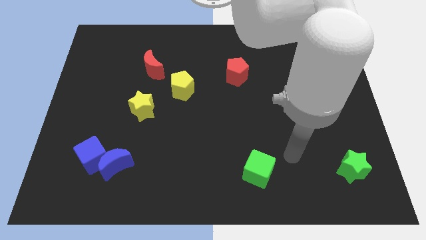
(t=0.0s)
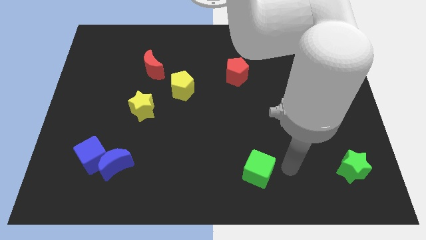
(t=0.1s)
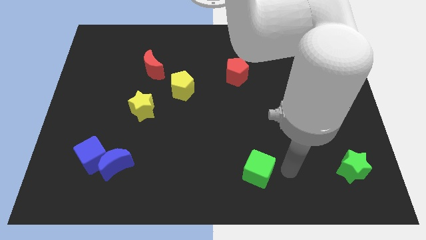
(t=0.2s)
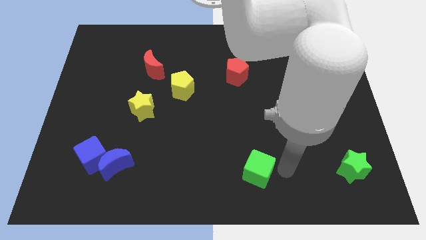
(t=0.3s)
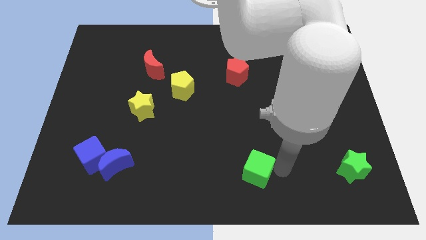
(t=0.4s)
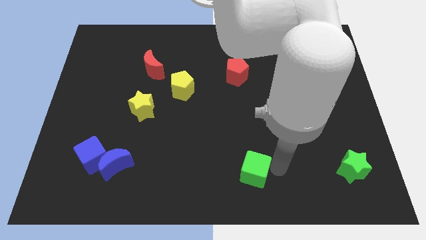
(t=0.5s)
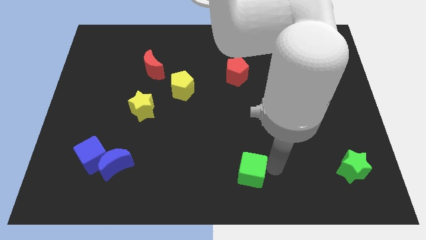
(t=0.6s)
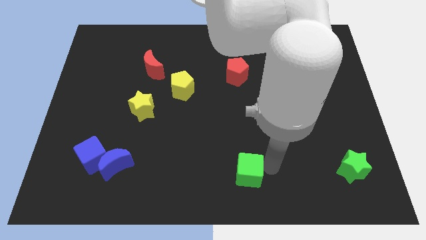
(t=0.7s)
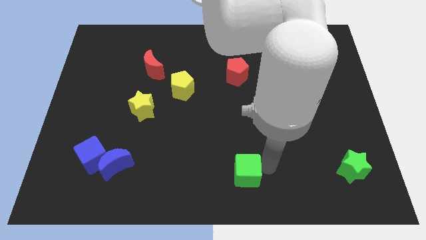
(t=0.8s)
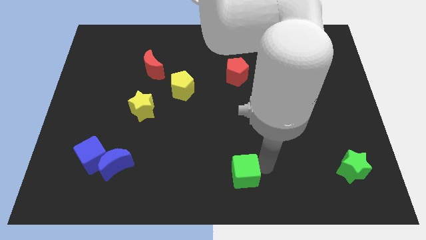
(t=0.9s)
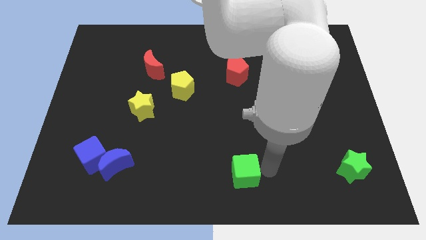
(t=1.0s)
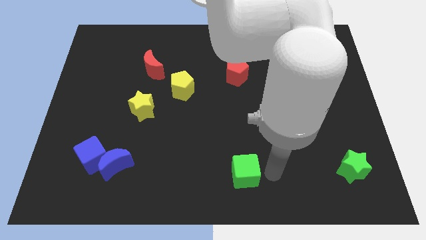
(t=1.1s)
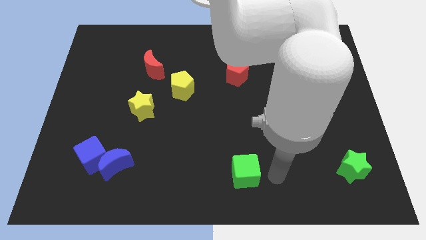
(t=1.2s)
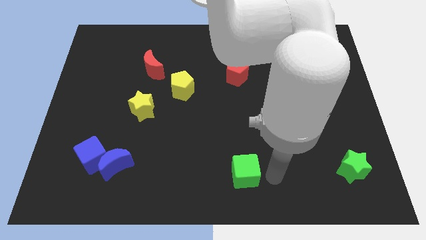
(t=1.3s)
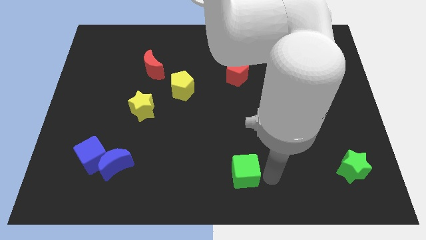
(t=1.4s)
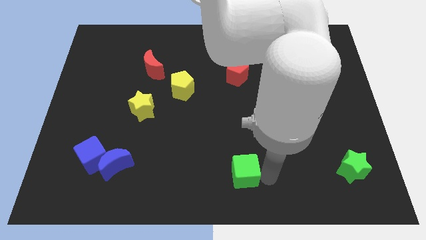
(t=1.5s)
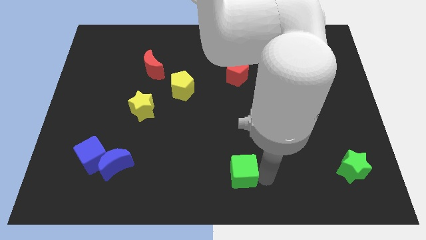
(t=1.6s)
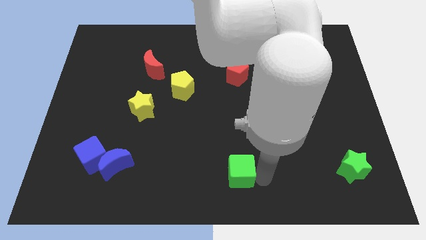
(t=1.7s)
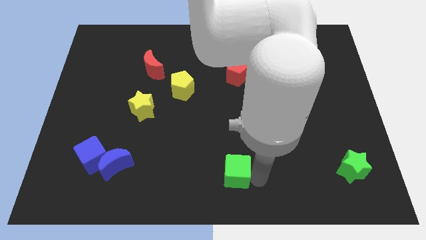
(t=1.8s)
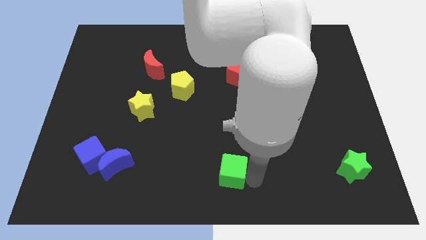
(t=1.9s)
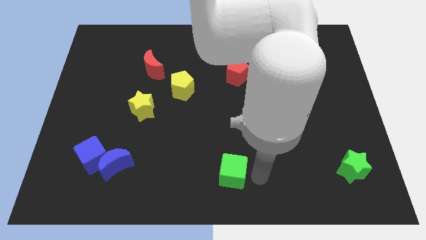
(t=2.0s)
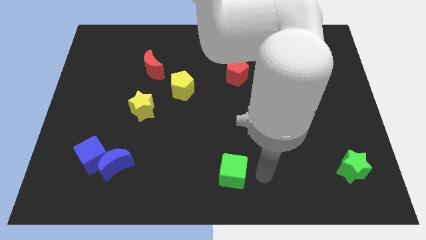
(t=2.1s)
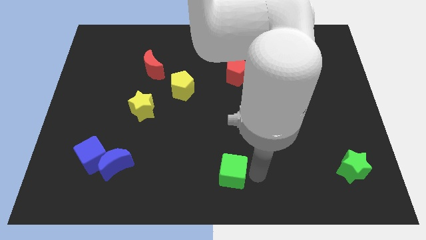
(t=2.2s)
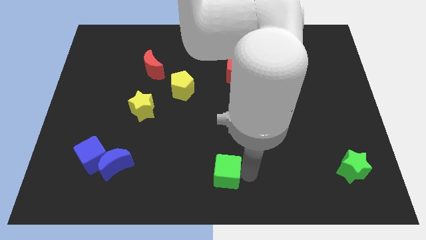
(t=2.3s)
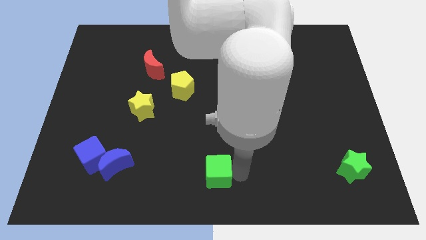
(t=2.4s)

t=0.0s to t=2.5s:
slightly move the green cube to the left

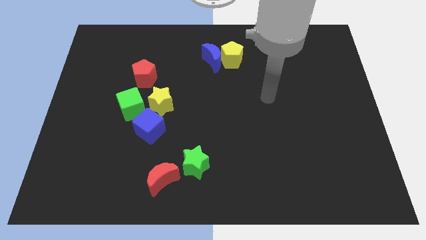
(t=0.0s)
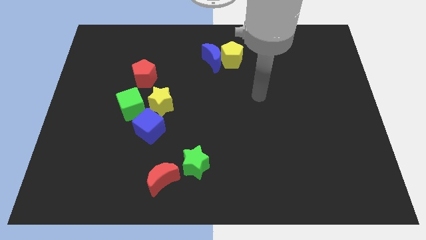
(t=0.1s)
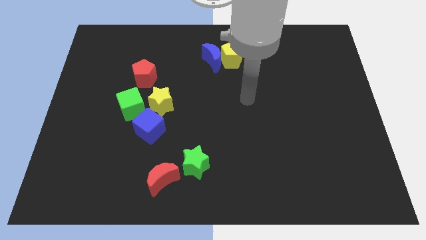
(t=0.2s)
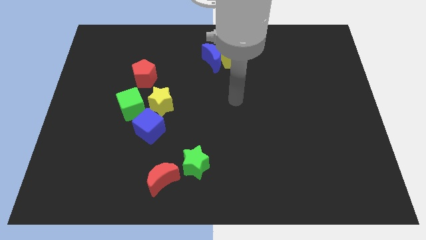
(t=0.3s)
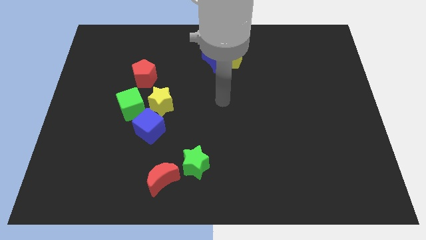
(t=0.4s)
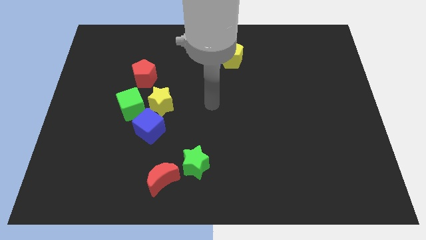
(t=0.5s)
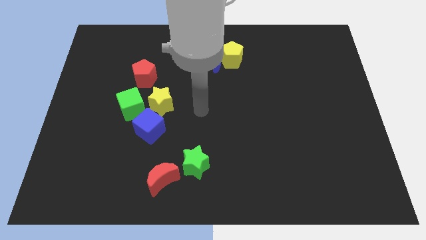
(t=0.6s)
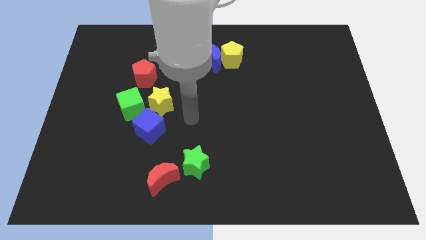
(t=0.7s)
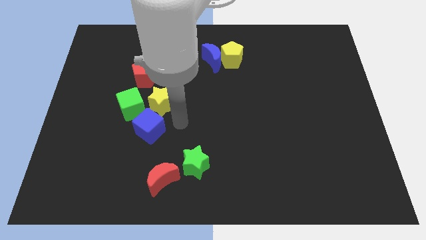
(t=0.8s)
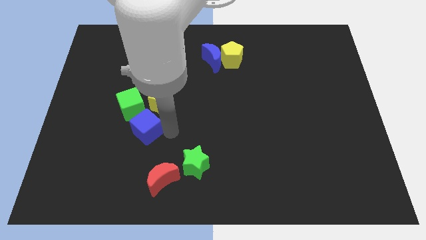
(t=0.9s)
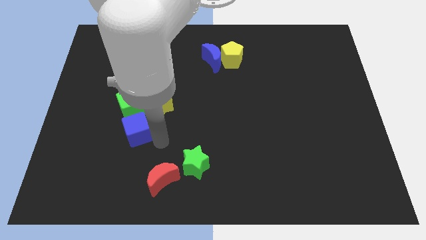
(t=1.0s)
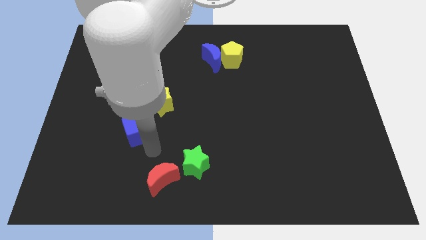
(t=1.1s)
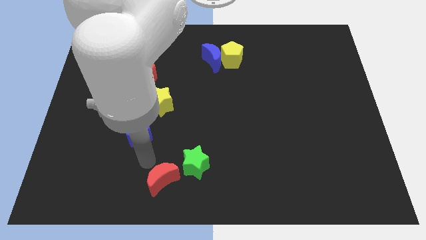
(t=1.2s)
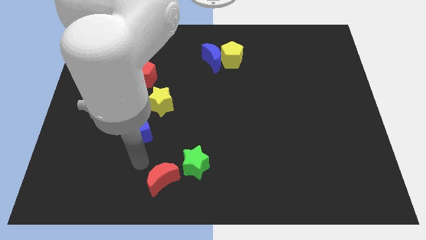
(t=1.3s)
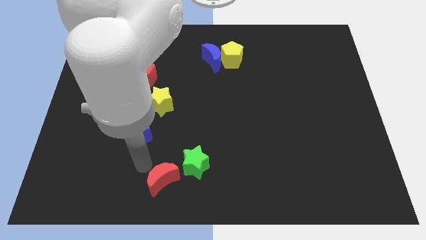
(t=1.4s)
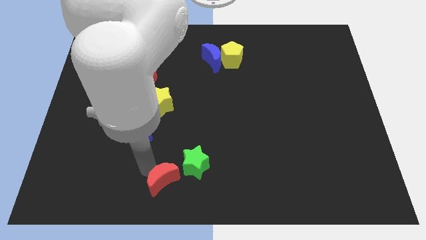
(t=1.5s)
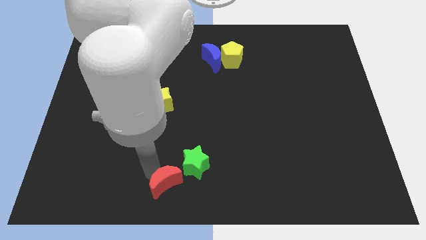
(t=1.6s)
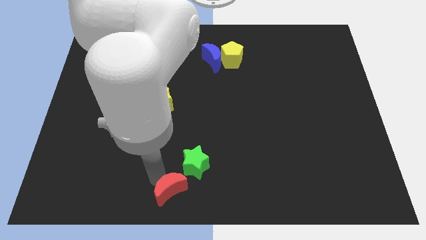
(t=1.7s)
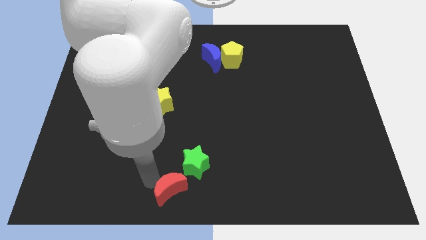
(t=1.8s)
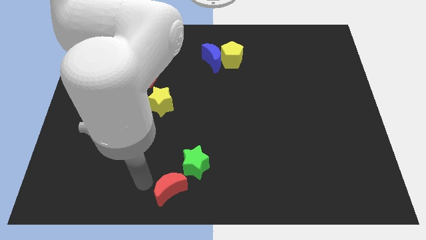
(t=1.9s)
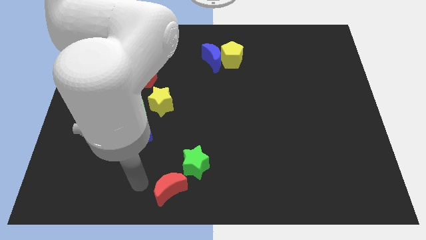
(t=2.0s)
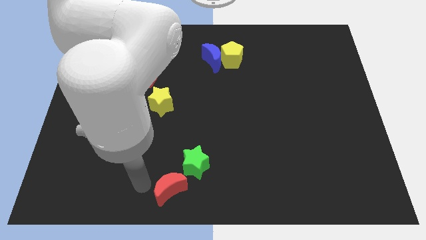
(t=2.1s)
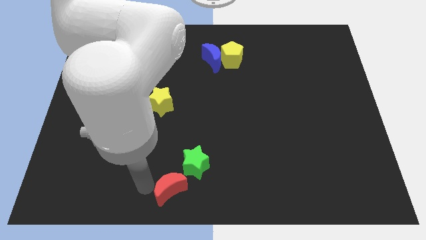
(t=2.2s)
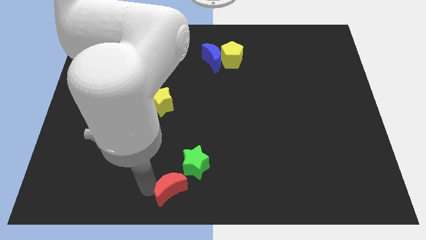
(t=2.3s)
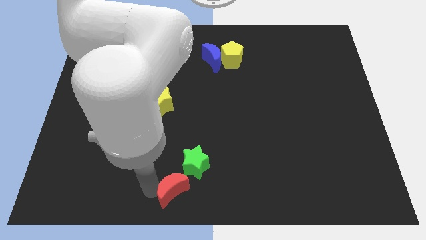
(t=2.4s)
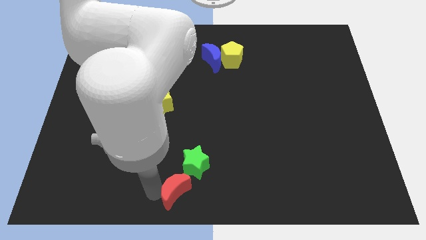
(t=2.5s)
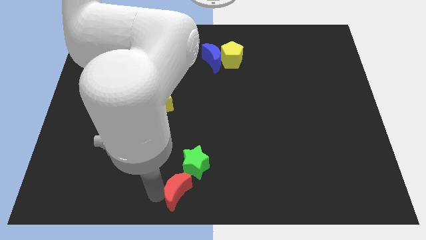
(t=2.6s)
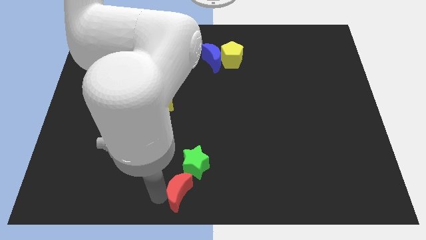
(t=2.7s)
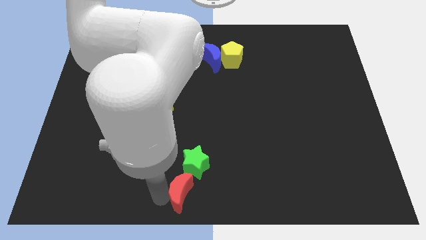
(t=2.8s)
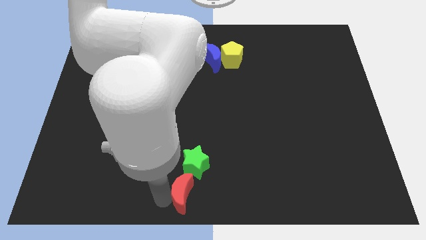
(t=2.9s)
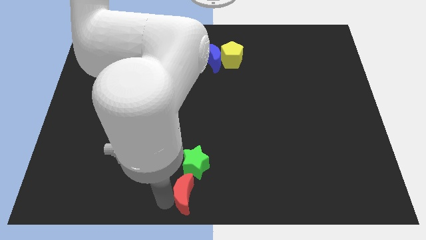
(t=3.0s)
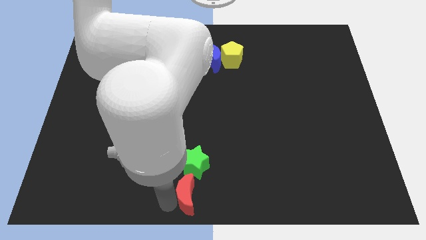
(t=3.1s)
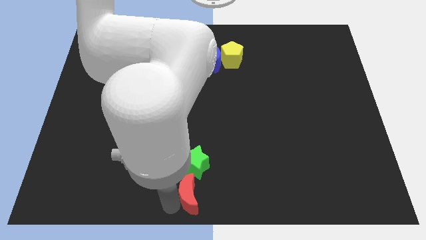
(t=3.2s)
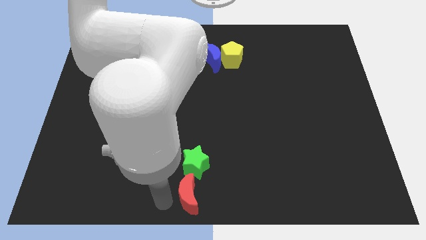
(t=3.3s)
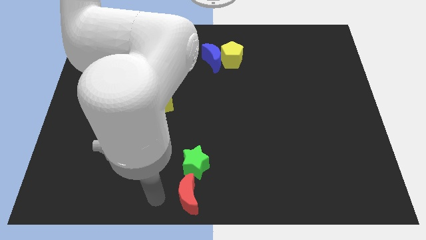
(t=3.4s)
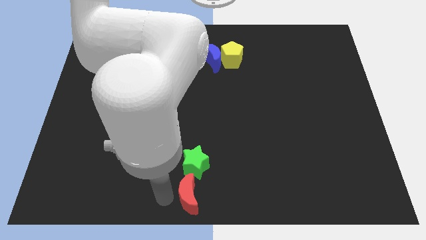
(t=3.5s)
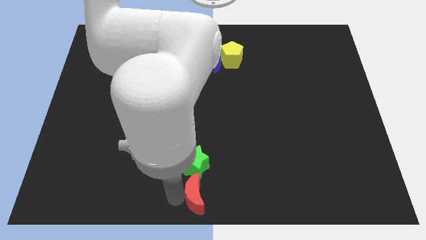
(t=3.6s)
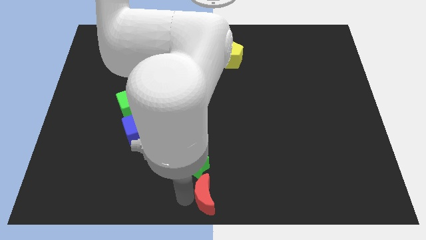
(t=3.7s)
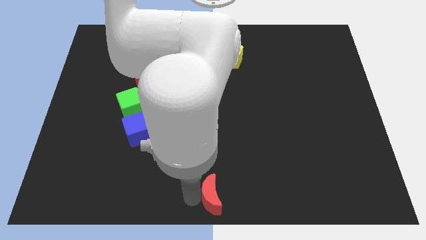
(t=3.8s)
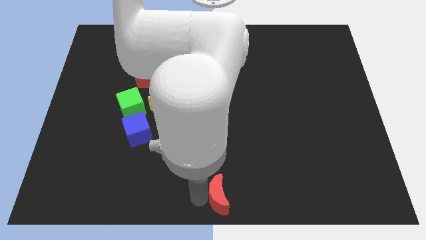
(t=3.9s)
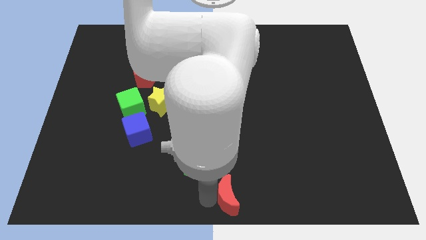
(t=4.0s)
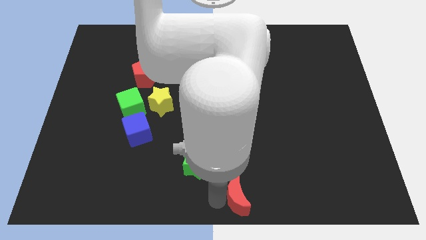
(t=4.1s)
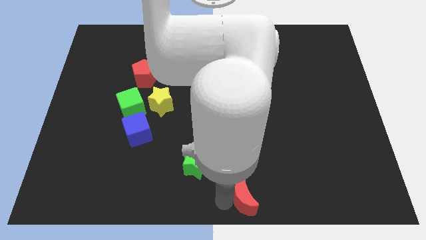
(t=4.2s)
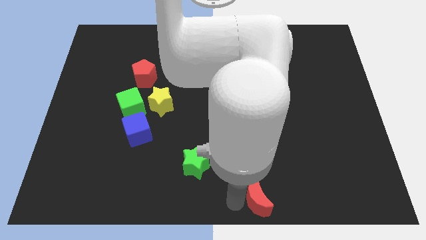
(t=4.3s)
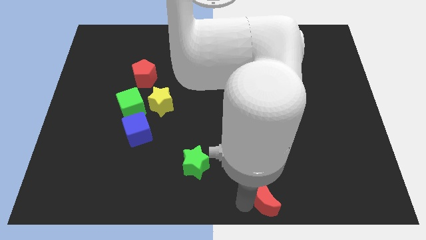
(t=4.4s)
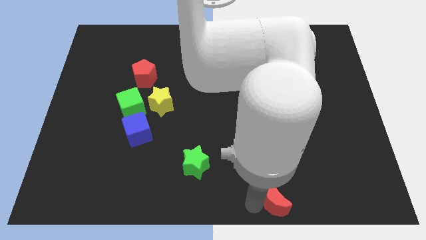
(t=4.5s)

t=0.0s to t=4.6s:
move the red moon right

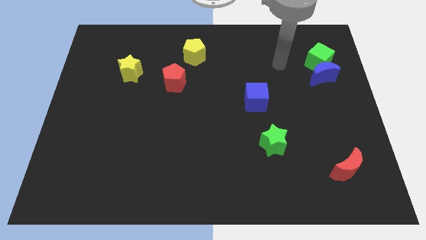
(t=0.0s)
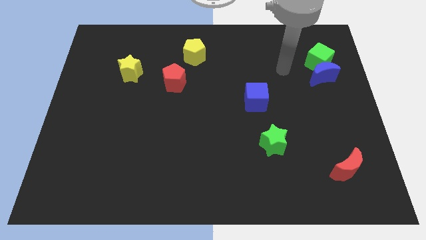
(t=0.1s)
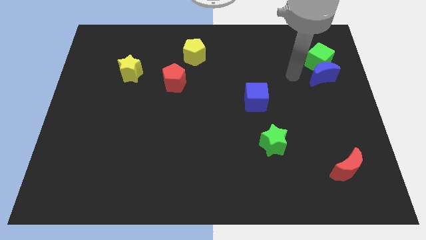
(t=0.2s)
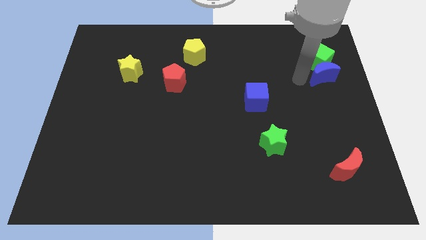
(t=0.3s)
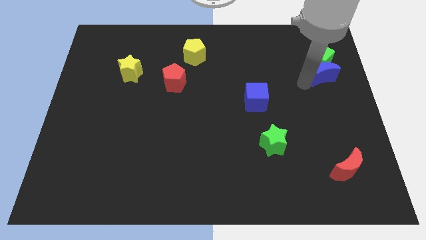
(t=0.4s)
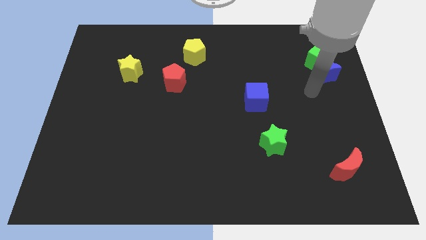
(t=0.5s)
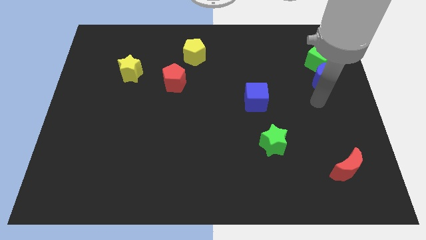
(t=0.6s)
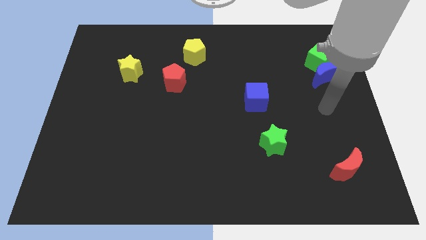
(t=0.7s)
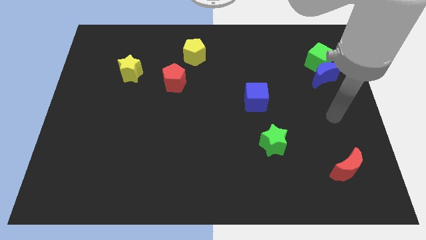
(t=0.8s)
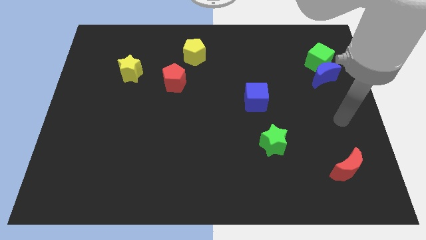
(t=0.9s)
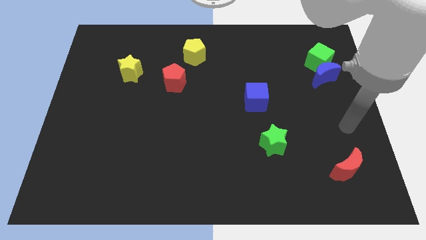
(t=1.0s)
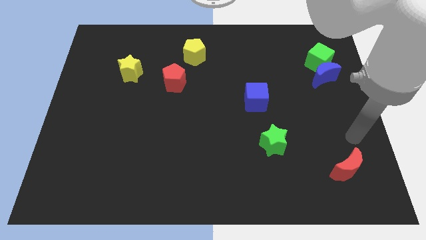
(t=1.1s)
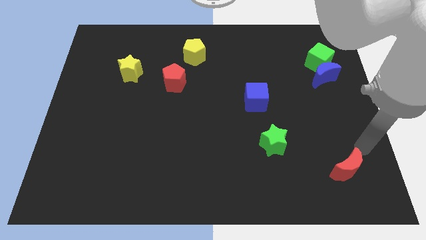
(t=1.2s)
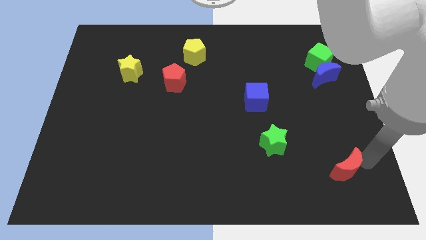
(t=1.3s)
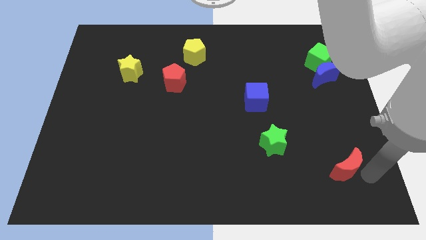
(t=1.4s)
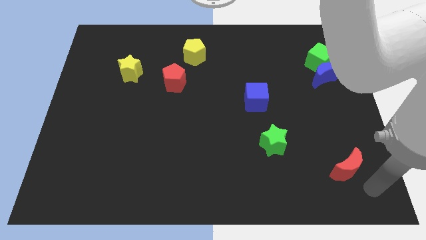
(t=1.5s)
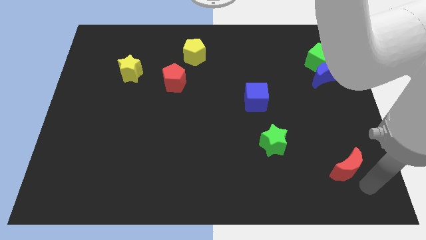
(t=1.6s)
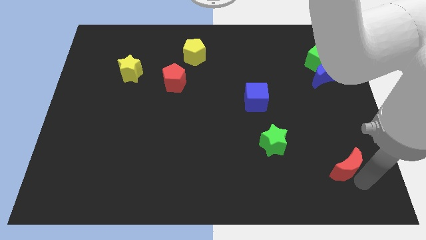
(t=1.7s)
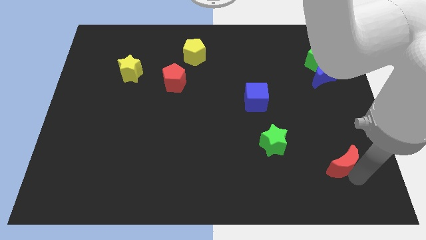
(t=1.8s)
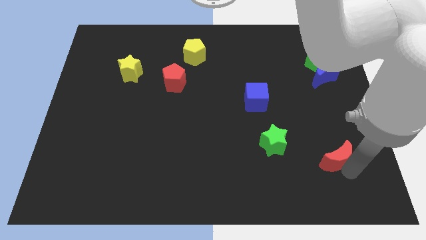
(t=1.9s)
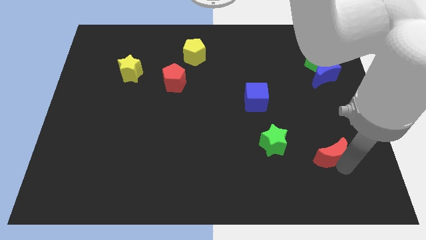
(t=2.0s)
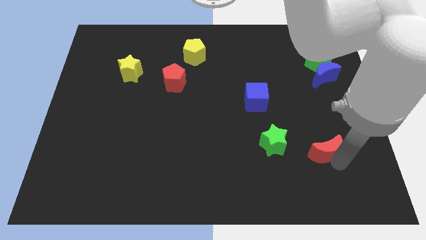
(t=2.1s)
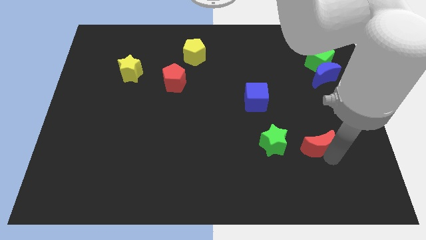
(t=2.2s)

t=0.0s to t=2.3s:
move the red moon up and left diagonally a bit
